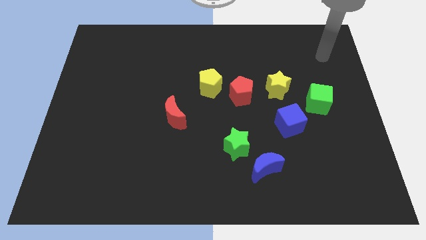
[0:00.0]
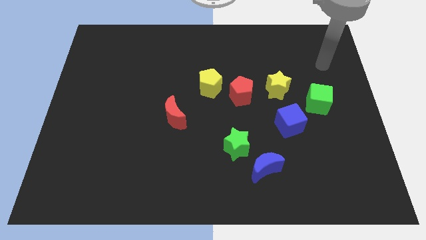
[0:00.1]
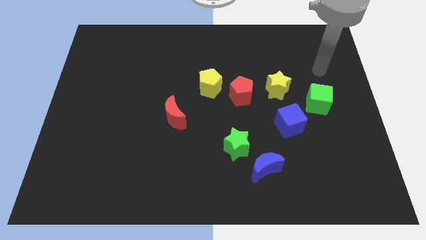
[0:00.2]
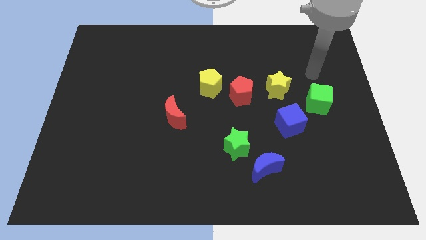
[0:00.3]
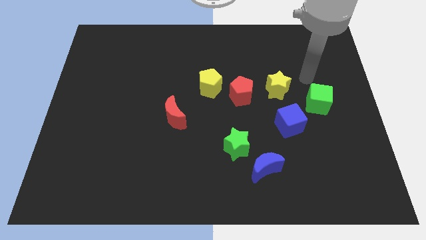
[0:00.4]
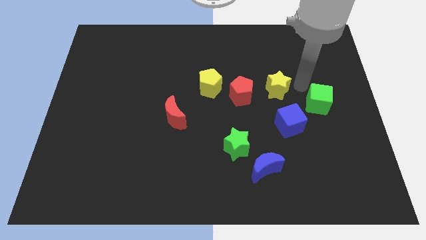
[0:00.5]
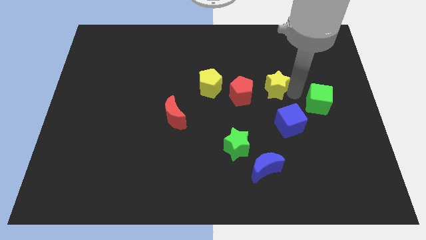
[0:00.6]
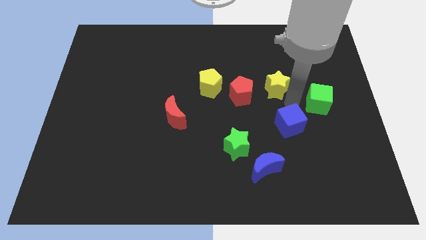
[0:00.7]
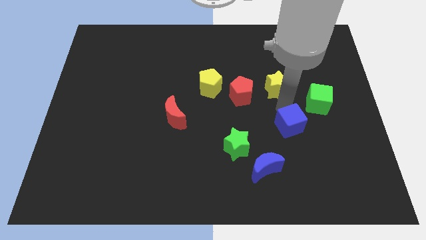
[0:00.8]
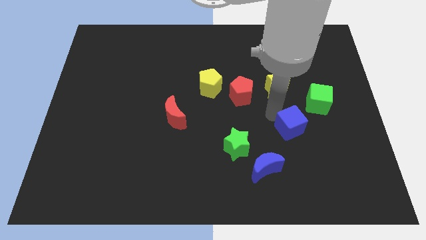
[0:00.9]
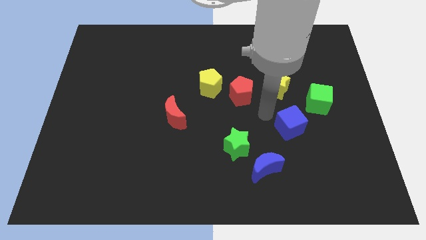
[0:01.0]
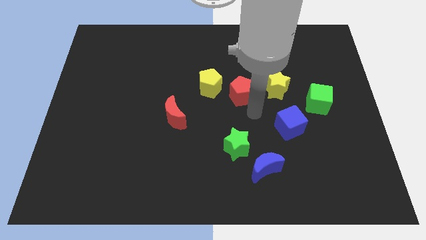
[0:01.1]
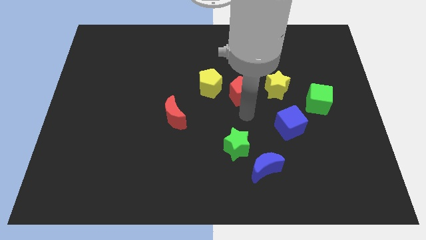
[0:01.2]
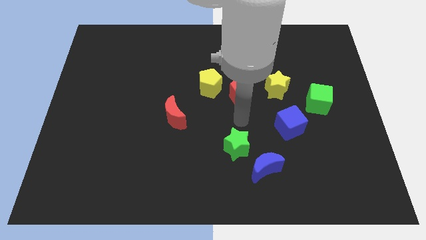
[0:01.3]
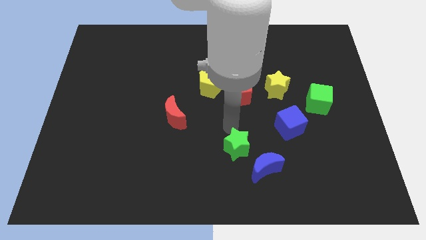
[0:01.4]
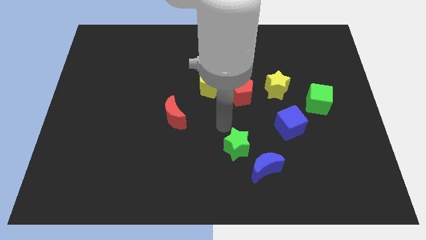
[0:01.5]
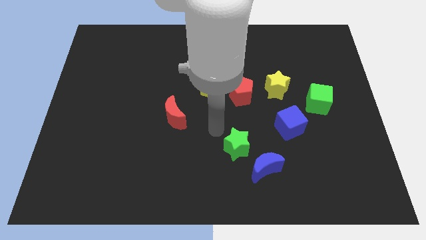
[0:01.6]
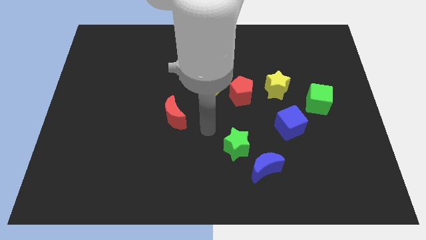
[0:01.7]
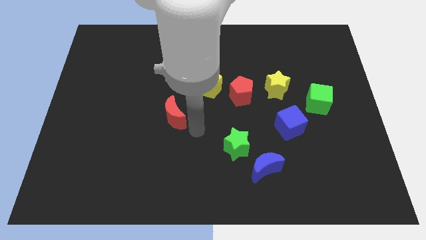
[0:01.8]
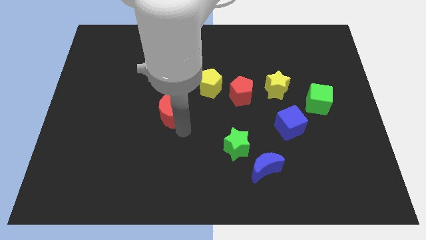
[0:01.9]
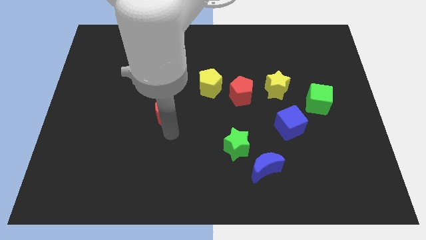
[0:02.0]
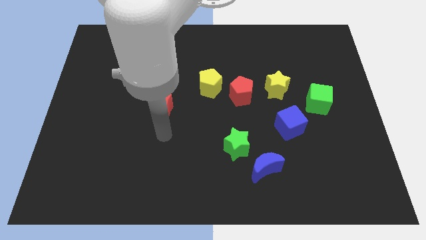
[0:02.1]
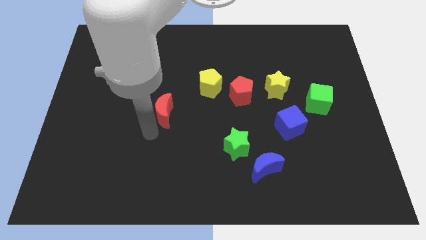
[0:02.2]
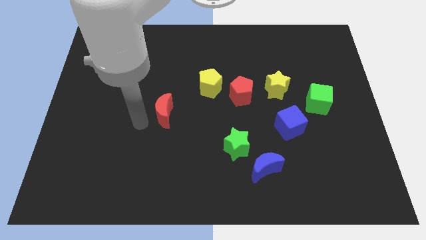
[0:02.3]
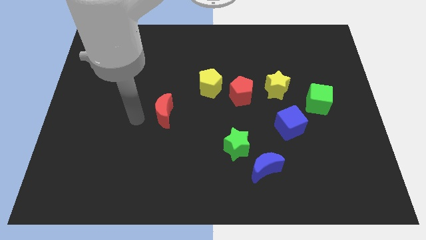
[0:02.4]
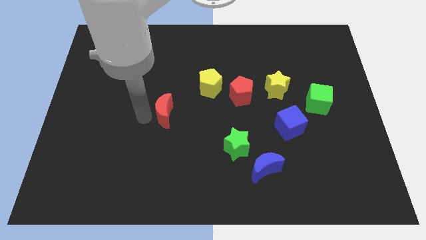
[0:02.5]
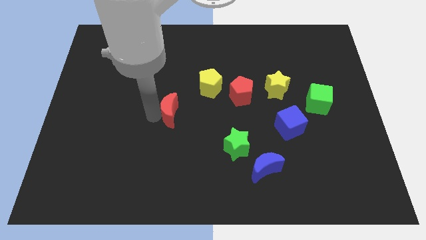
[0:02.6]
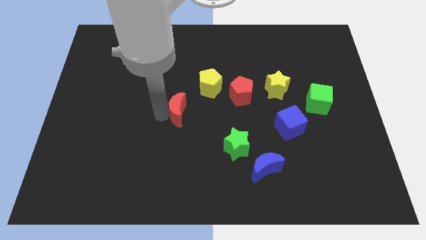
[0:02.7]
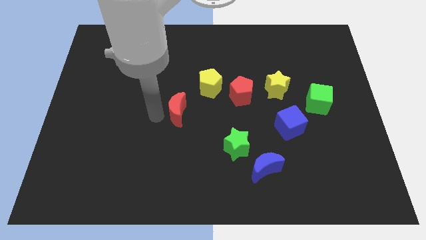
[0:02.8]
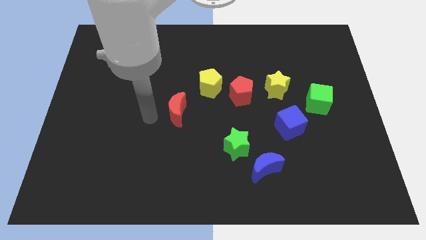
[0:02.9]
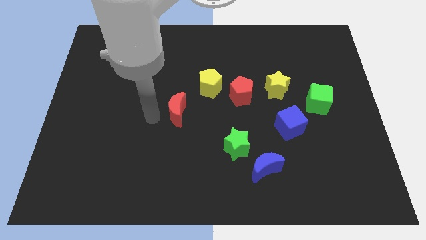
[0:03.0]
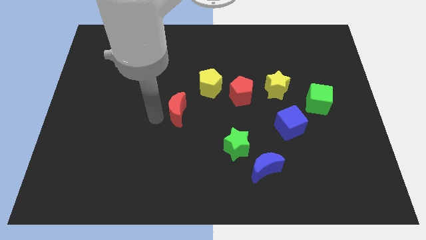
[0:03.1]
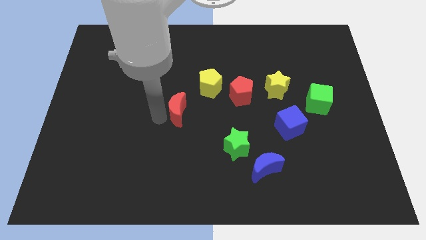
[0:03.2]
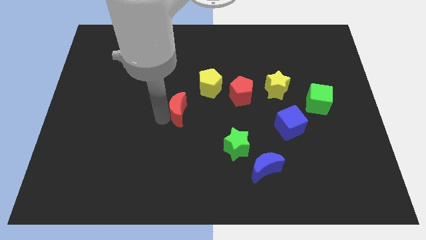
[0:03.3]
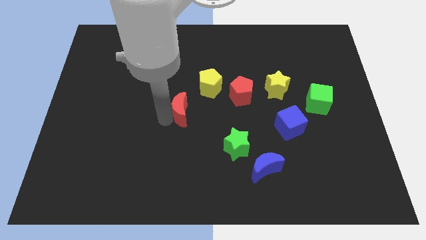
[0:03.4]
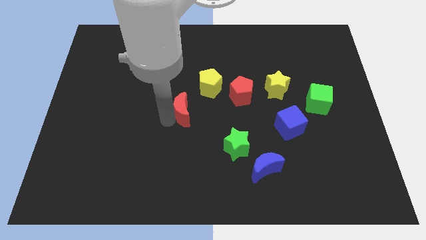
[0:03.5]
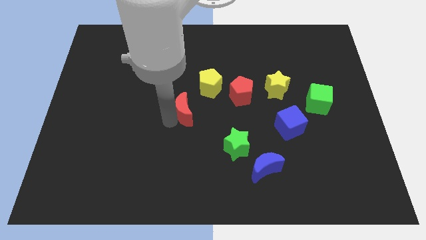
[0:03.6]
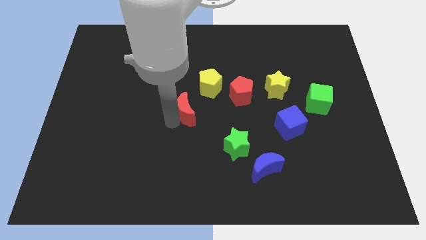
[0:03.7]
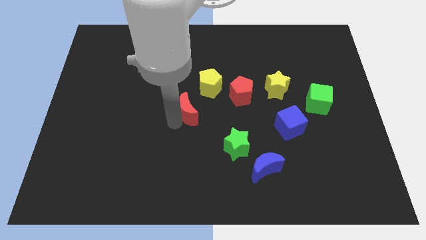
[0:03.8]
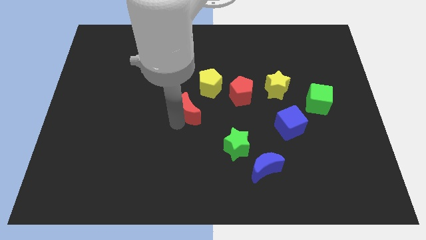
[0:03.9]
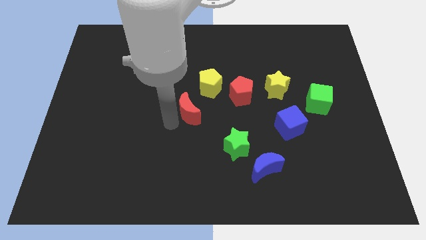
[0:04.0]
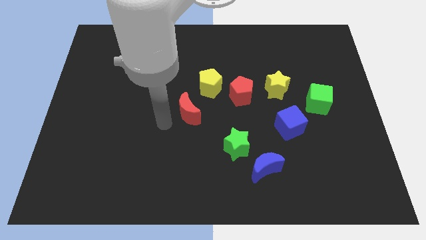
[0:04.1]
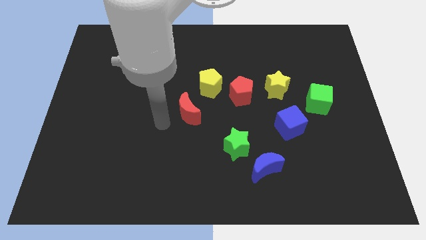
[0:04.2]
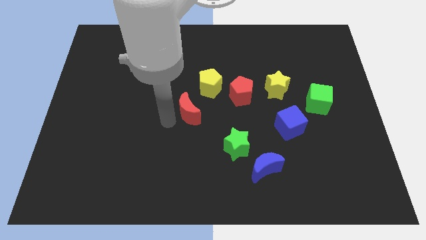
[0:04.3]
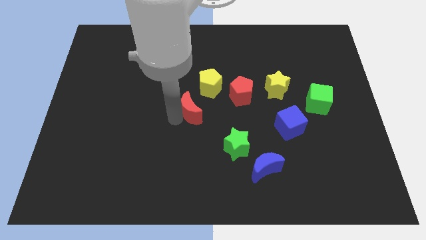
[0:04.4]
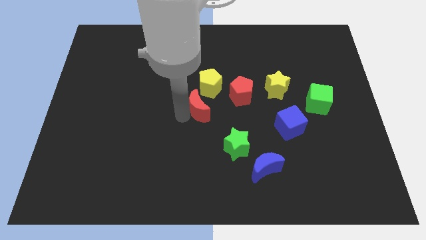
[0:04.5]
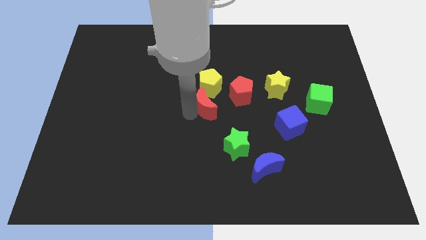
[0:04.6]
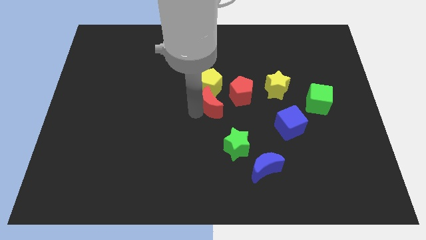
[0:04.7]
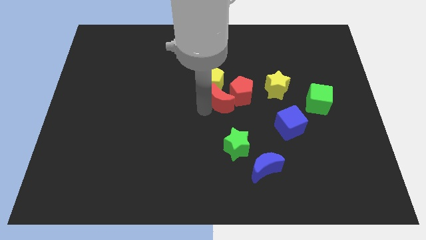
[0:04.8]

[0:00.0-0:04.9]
move the red moon towards the red pentagon

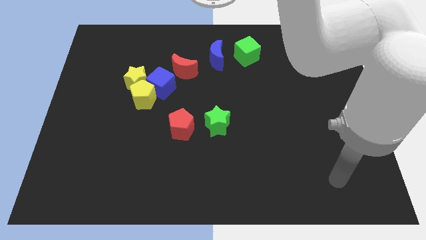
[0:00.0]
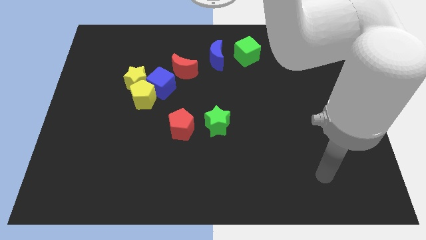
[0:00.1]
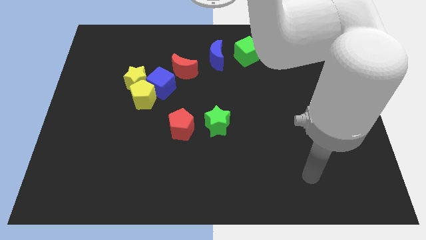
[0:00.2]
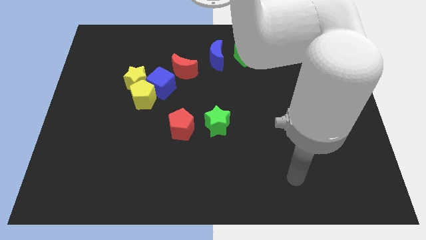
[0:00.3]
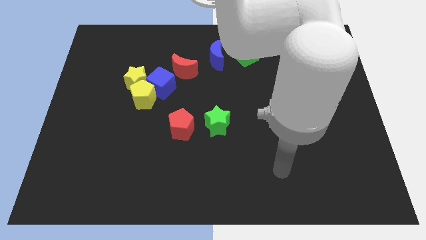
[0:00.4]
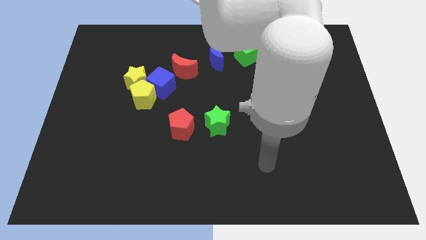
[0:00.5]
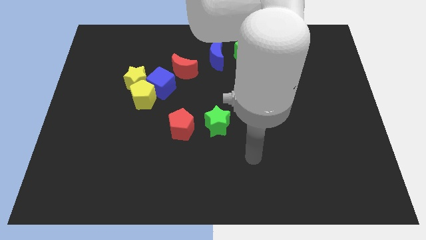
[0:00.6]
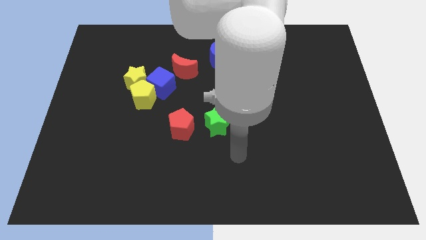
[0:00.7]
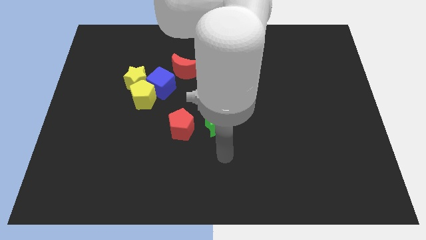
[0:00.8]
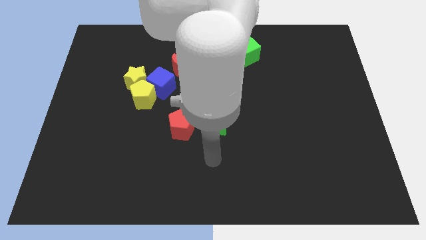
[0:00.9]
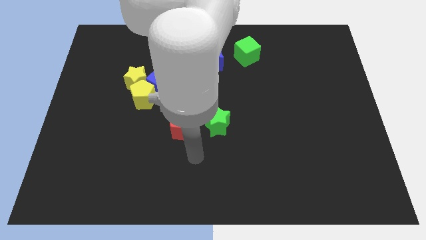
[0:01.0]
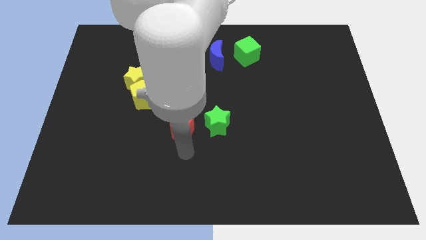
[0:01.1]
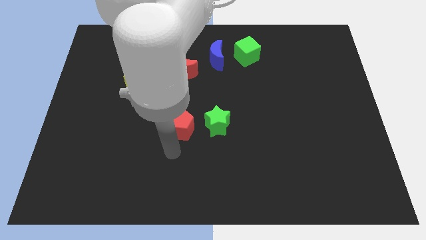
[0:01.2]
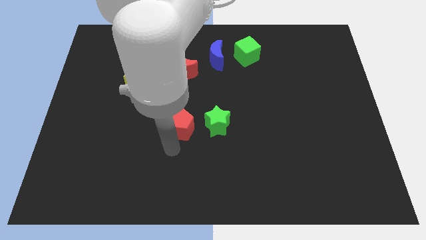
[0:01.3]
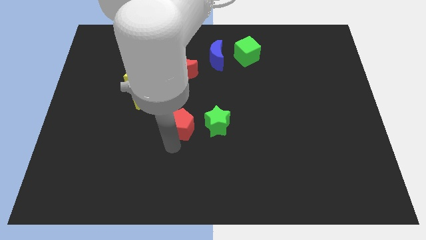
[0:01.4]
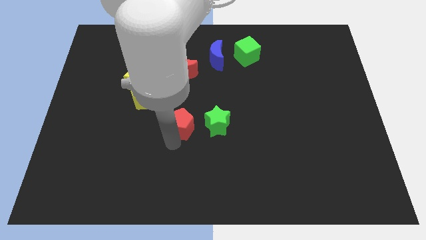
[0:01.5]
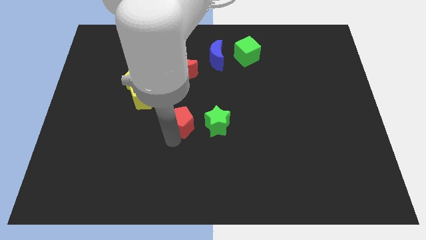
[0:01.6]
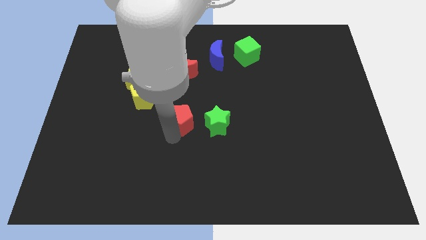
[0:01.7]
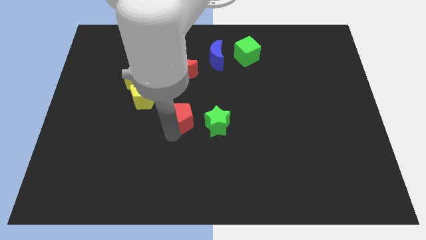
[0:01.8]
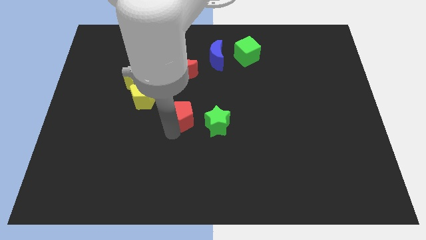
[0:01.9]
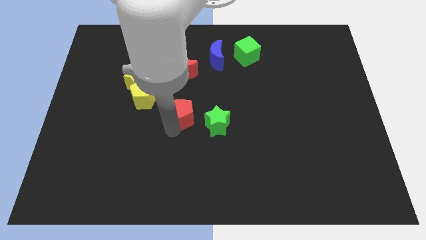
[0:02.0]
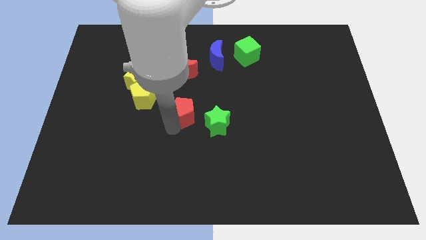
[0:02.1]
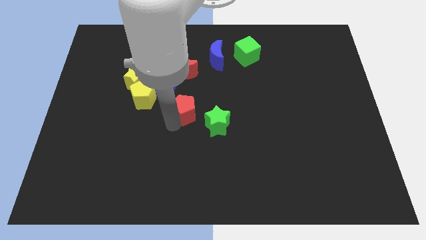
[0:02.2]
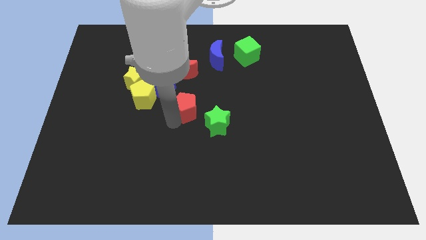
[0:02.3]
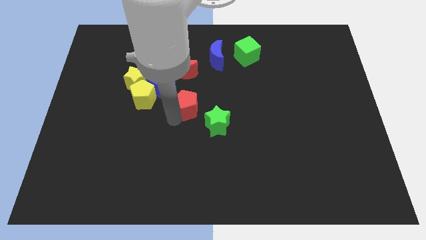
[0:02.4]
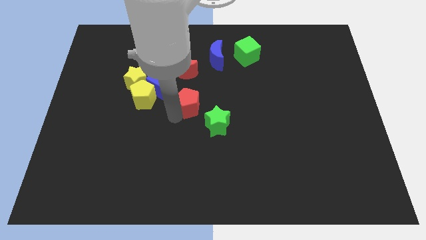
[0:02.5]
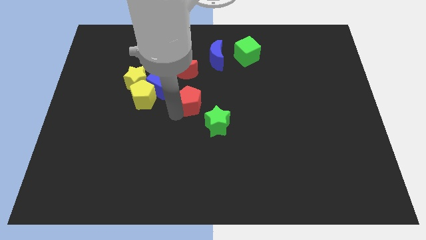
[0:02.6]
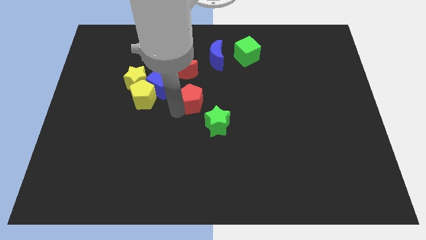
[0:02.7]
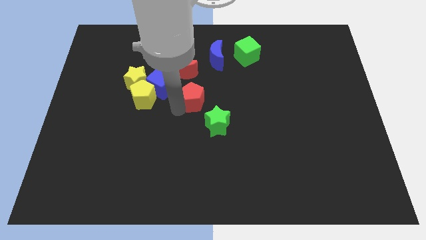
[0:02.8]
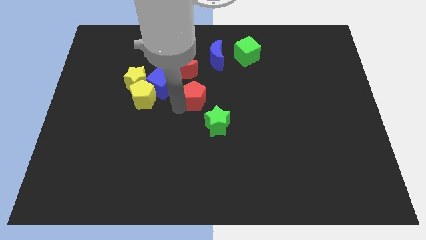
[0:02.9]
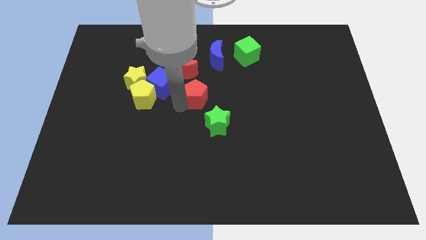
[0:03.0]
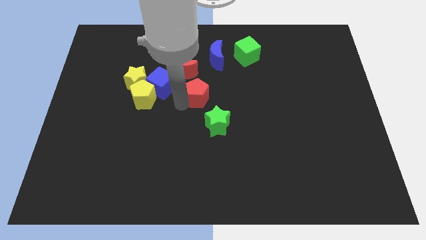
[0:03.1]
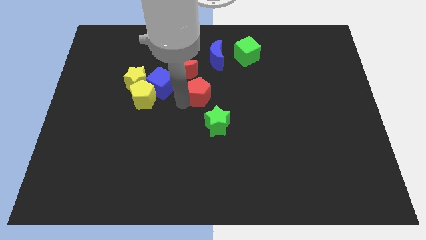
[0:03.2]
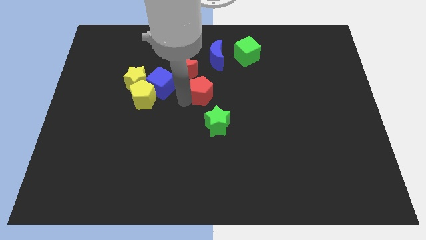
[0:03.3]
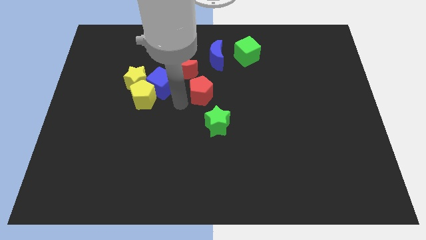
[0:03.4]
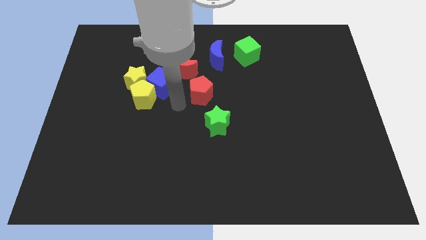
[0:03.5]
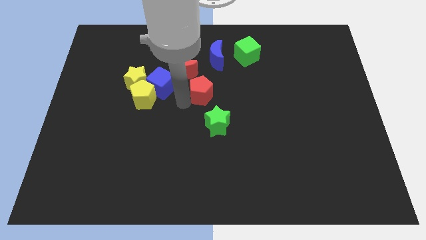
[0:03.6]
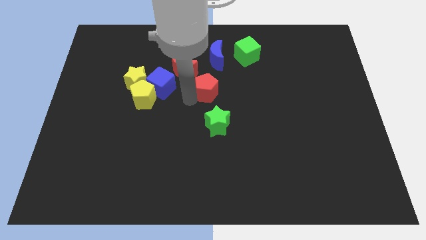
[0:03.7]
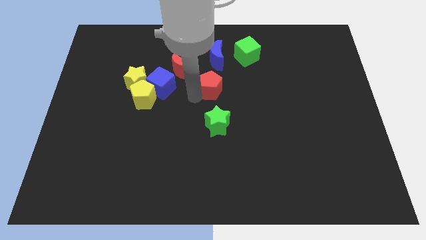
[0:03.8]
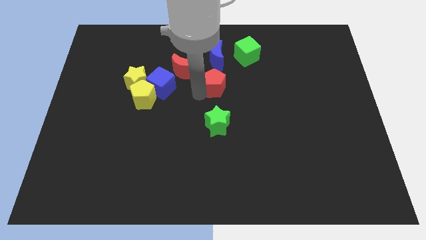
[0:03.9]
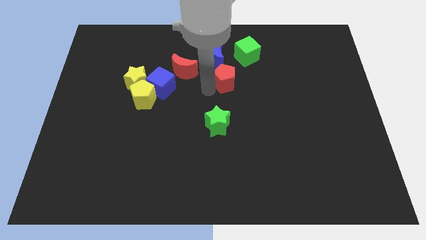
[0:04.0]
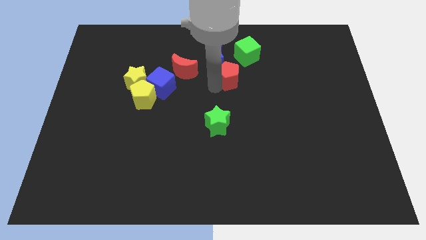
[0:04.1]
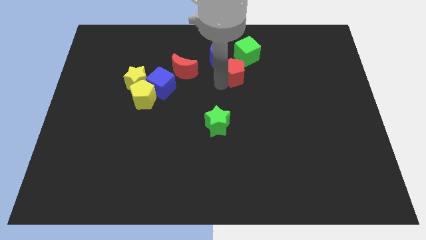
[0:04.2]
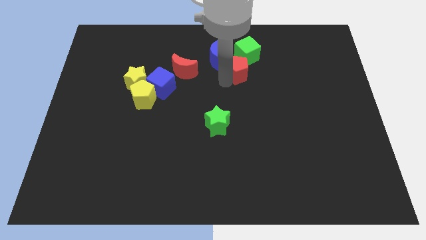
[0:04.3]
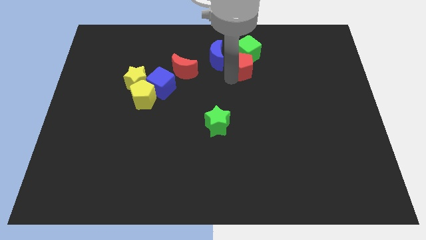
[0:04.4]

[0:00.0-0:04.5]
put the red pentagon towards the green cube
